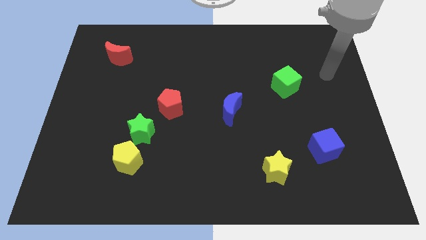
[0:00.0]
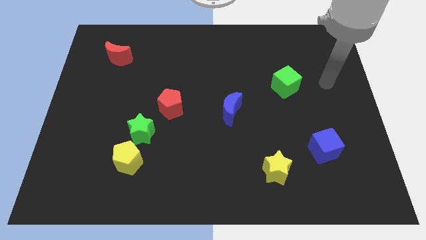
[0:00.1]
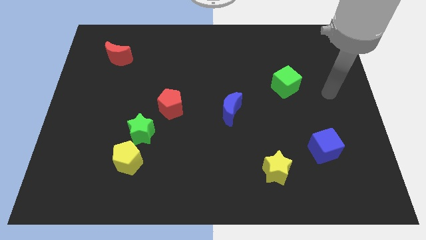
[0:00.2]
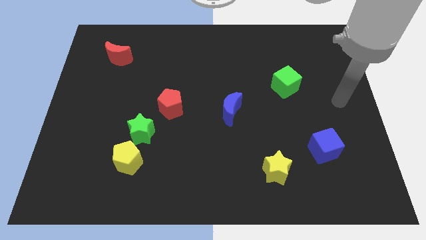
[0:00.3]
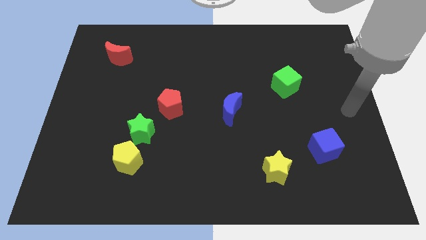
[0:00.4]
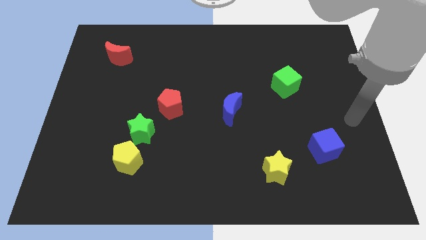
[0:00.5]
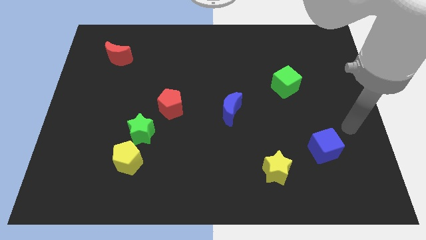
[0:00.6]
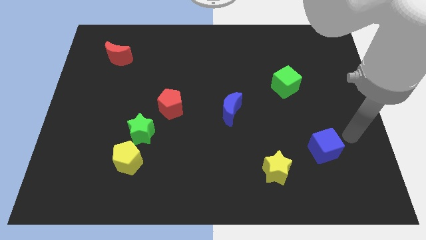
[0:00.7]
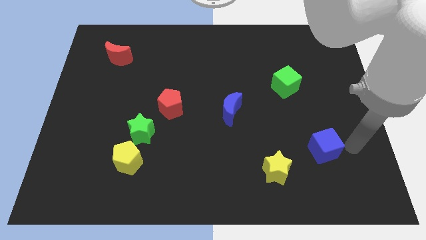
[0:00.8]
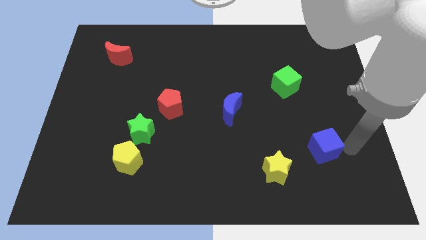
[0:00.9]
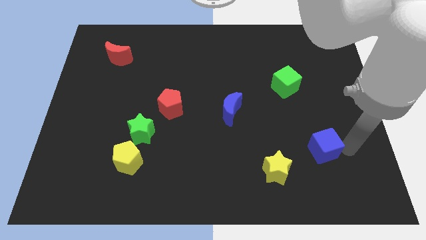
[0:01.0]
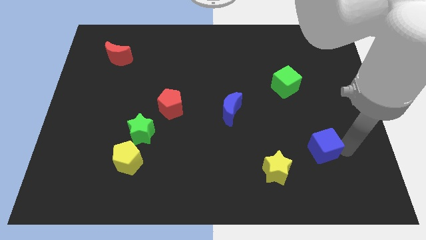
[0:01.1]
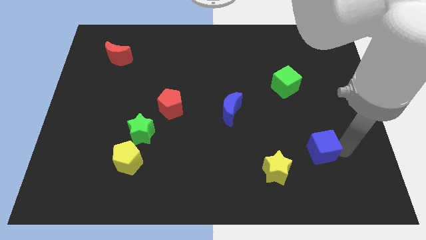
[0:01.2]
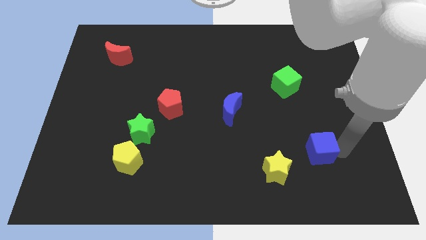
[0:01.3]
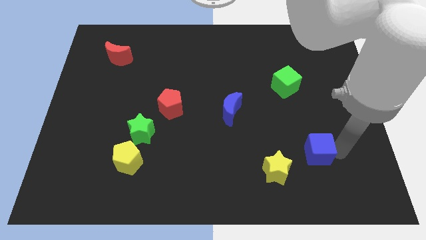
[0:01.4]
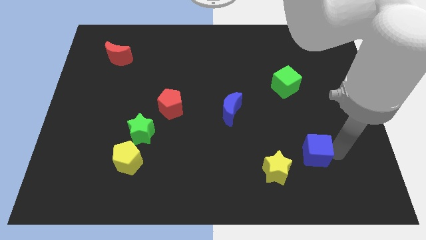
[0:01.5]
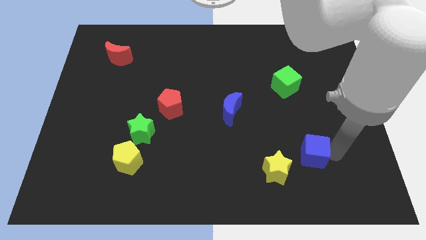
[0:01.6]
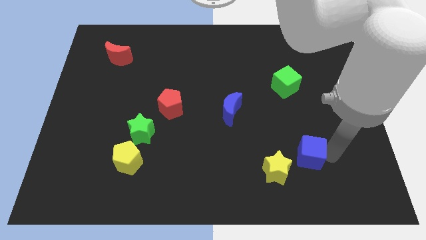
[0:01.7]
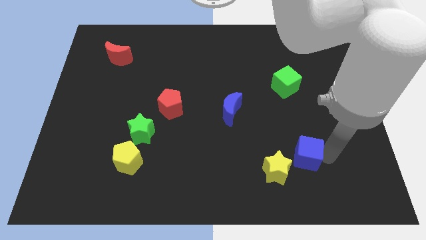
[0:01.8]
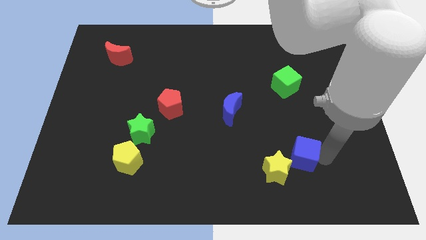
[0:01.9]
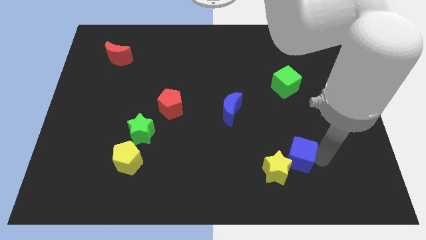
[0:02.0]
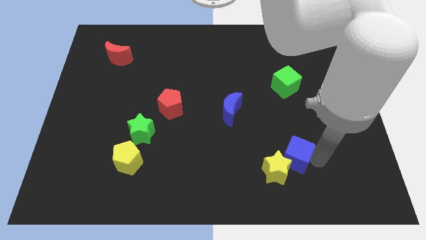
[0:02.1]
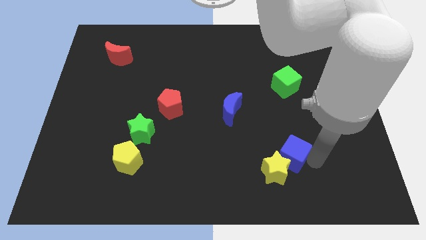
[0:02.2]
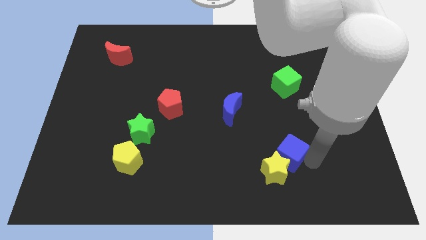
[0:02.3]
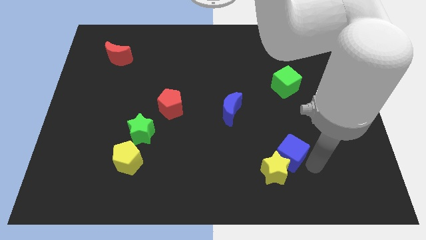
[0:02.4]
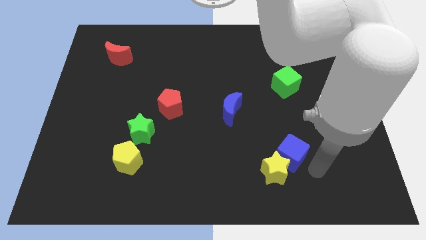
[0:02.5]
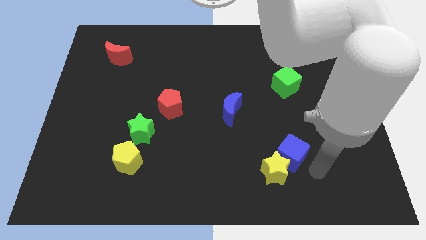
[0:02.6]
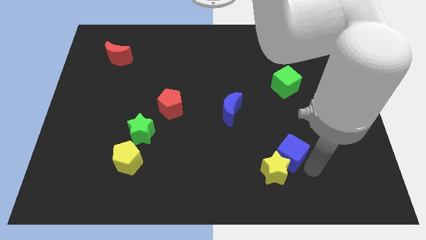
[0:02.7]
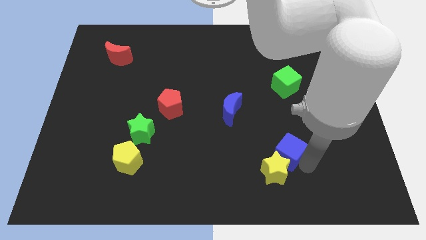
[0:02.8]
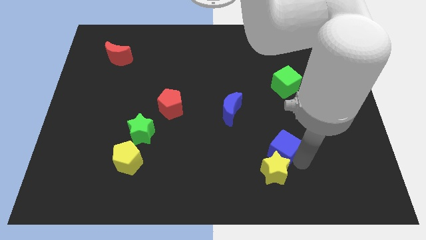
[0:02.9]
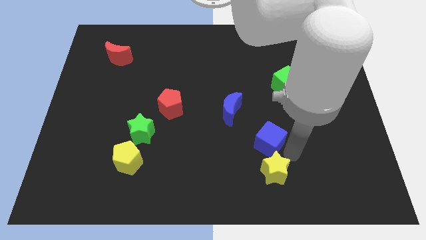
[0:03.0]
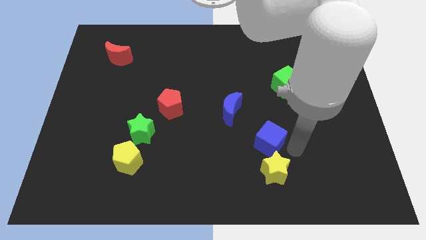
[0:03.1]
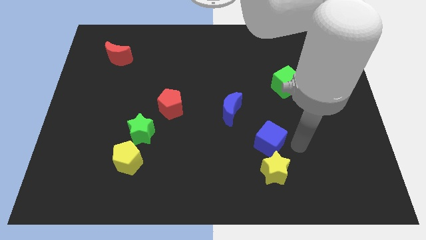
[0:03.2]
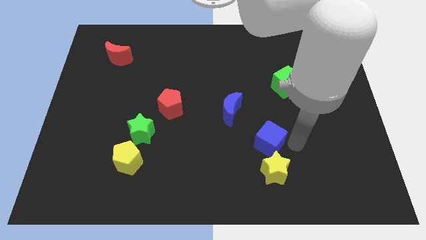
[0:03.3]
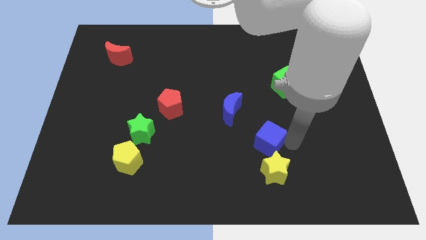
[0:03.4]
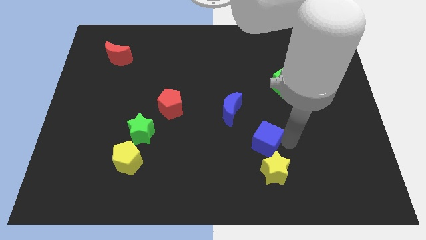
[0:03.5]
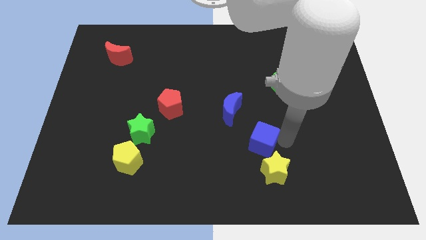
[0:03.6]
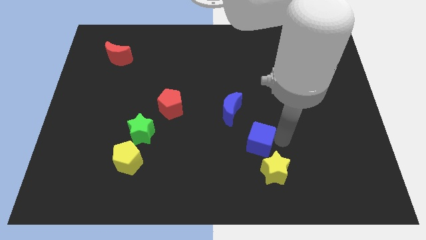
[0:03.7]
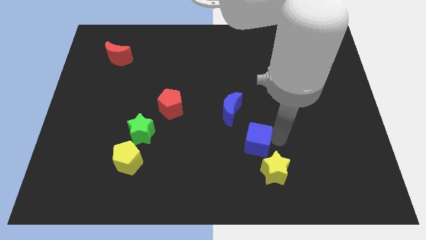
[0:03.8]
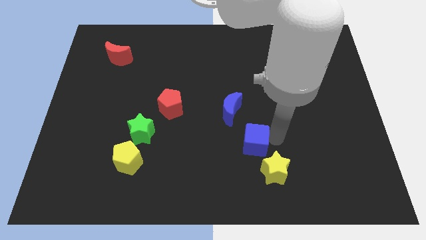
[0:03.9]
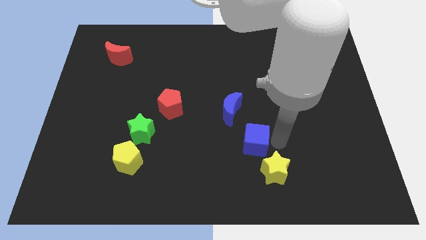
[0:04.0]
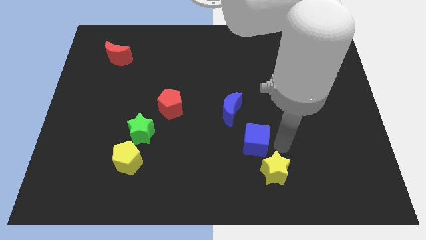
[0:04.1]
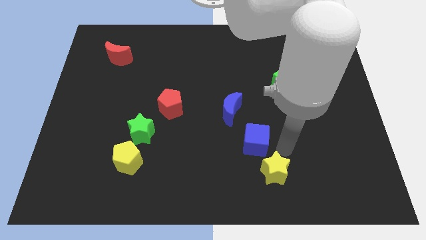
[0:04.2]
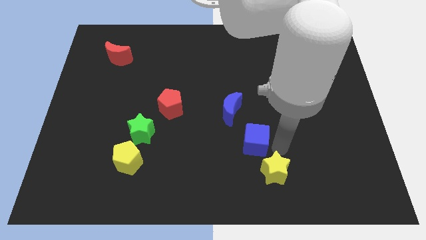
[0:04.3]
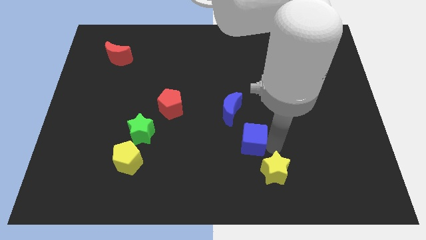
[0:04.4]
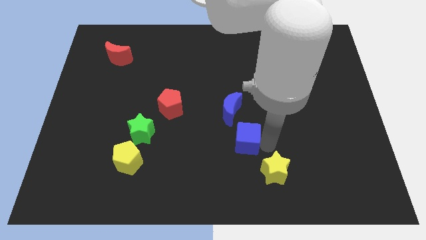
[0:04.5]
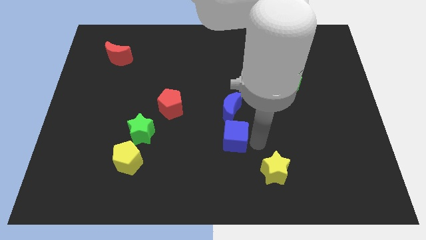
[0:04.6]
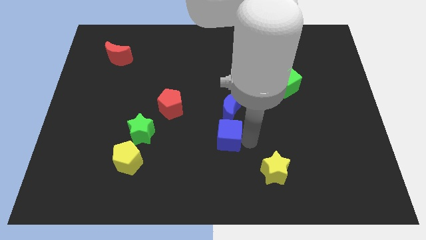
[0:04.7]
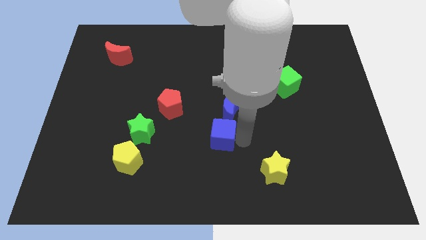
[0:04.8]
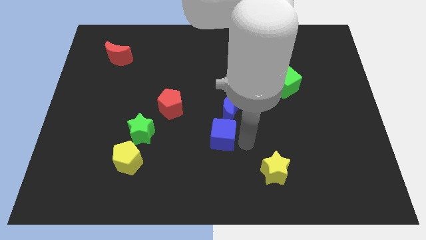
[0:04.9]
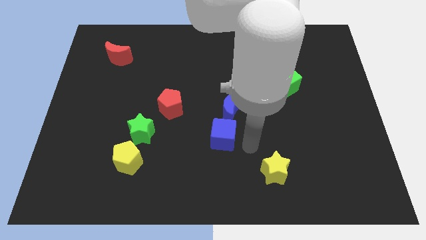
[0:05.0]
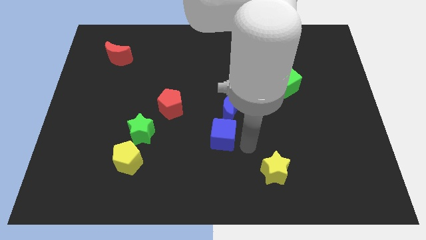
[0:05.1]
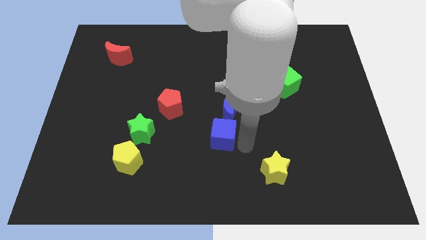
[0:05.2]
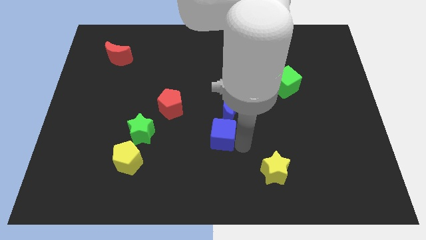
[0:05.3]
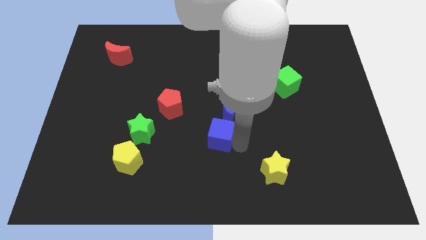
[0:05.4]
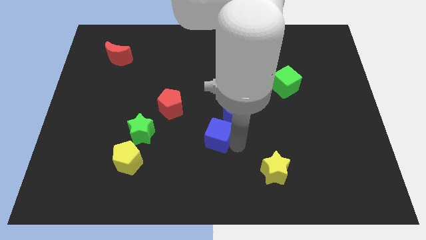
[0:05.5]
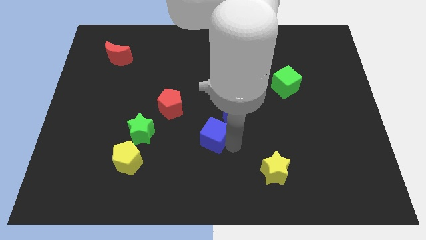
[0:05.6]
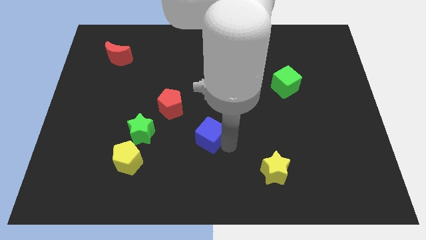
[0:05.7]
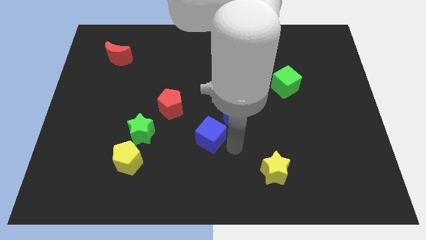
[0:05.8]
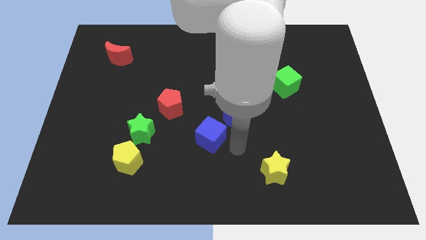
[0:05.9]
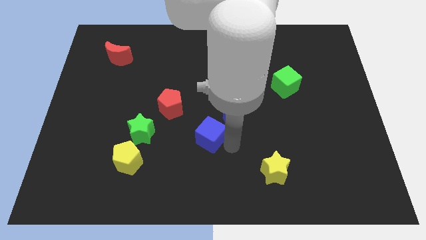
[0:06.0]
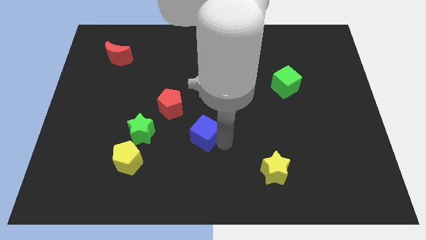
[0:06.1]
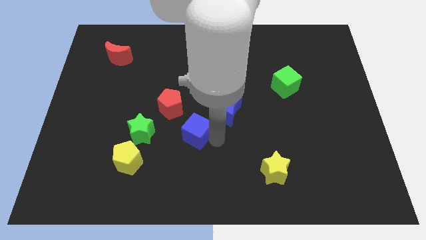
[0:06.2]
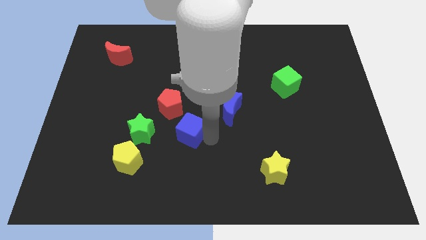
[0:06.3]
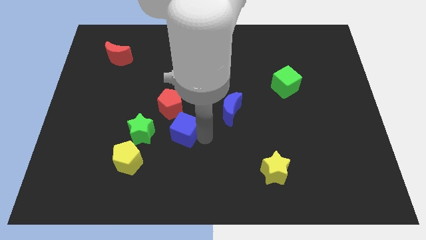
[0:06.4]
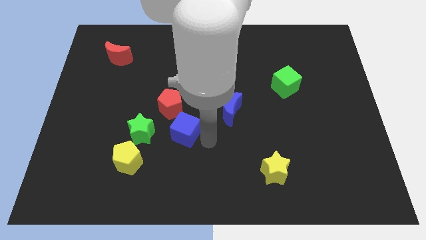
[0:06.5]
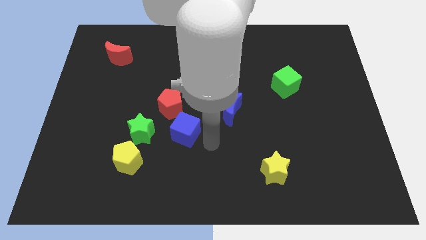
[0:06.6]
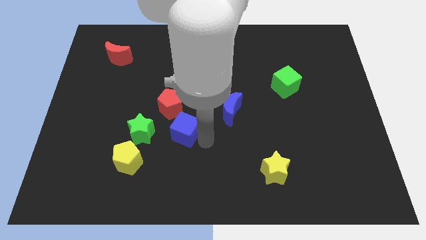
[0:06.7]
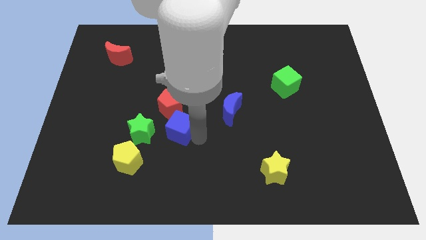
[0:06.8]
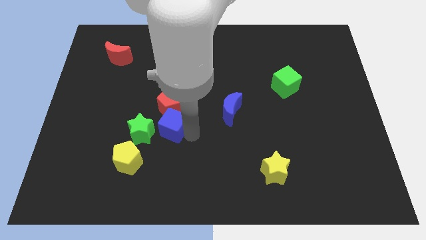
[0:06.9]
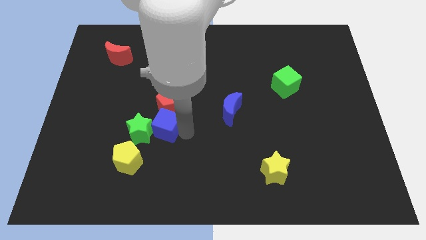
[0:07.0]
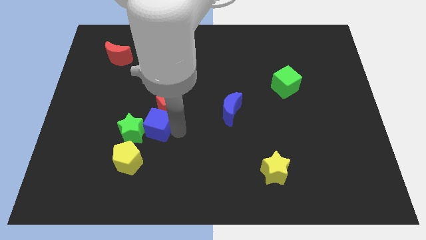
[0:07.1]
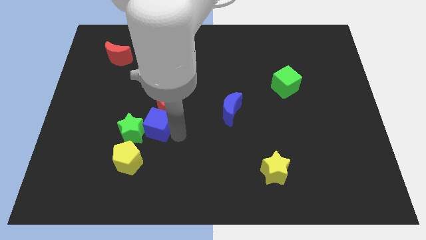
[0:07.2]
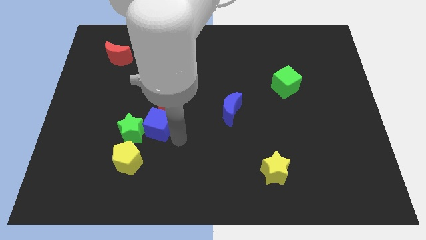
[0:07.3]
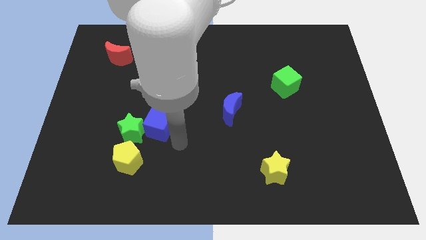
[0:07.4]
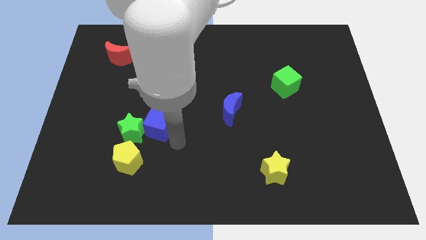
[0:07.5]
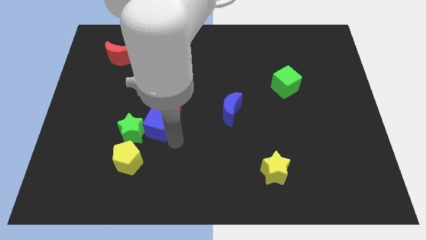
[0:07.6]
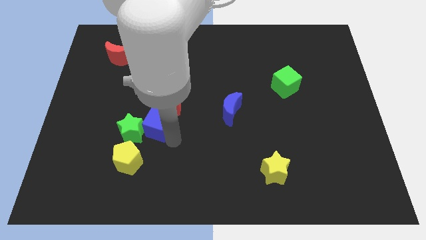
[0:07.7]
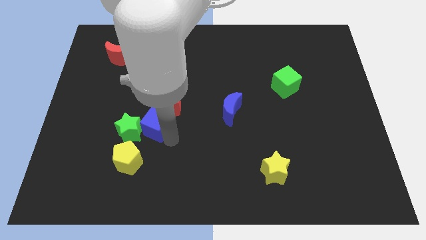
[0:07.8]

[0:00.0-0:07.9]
move the blue cube to the top side of the yellow pentagon
